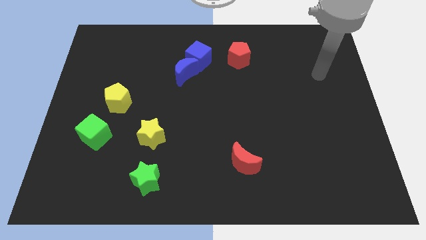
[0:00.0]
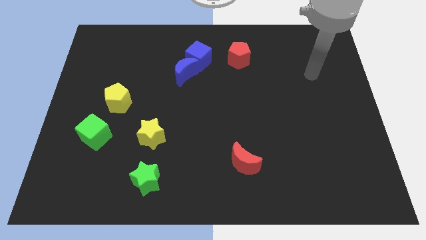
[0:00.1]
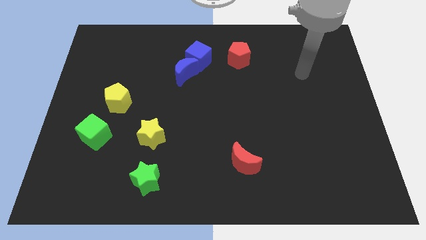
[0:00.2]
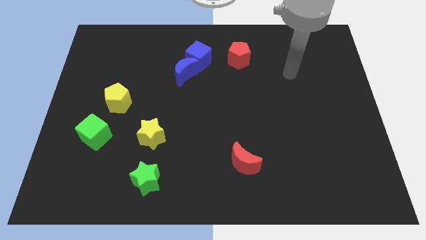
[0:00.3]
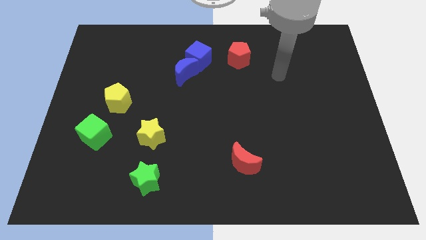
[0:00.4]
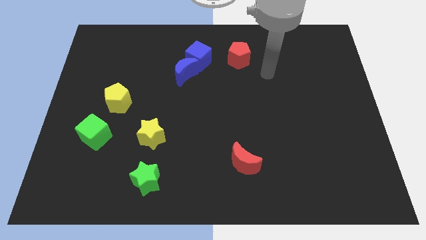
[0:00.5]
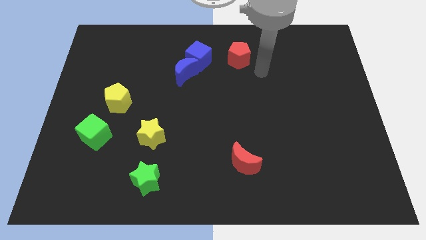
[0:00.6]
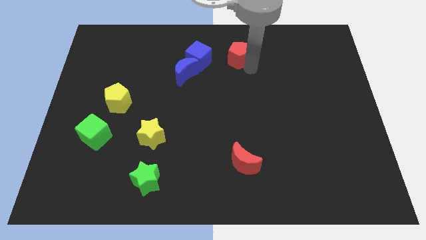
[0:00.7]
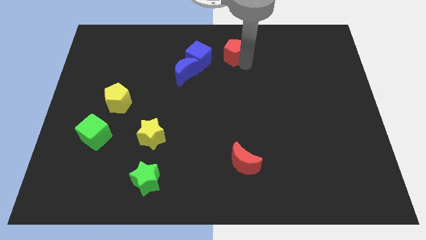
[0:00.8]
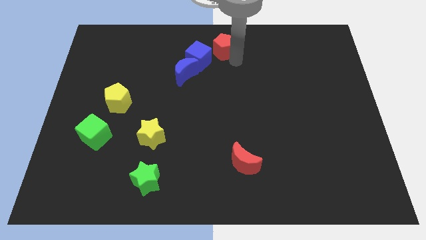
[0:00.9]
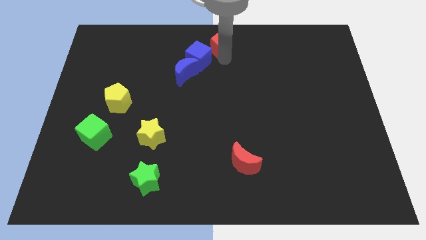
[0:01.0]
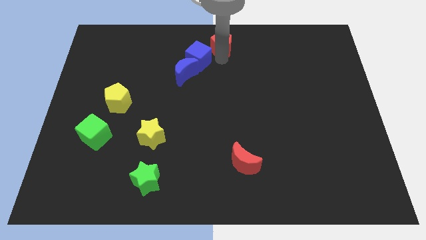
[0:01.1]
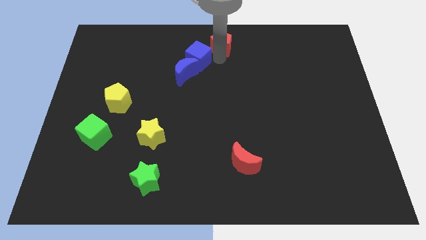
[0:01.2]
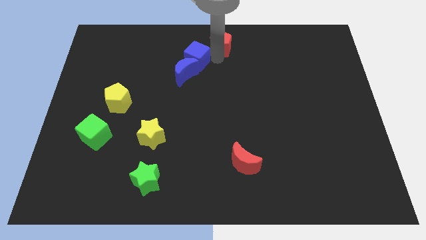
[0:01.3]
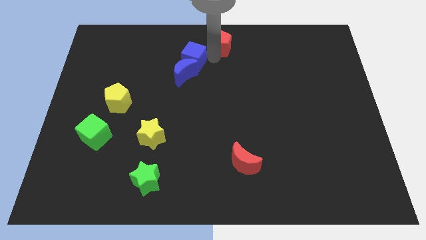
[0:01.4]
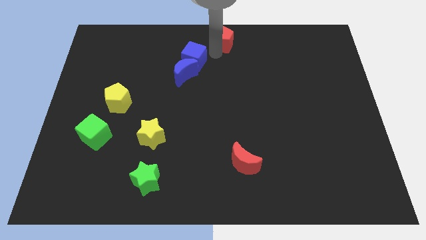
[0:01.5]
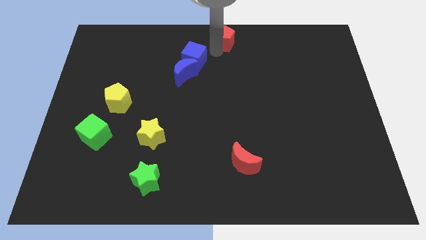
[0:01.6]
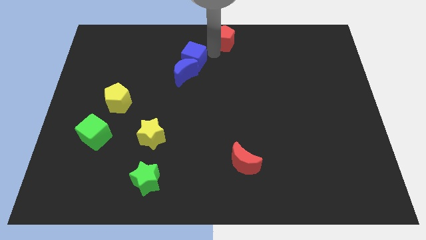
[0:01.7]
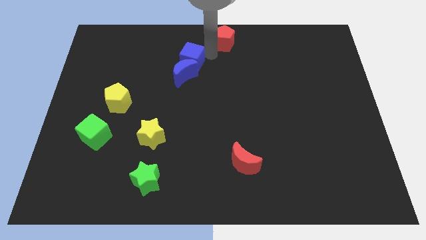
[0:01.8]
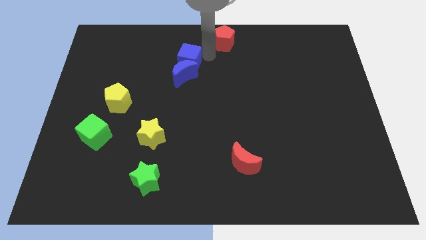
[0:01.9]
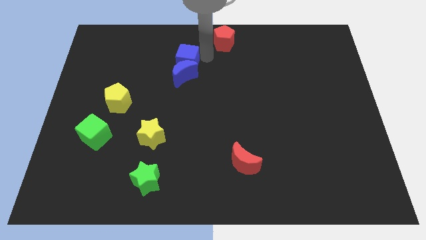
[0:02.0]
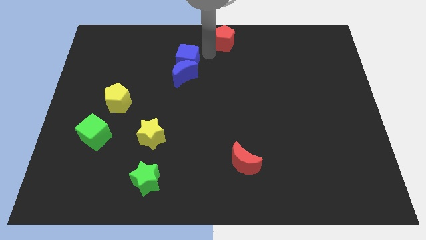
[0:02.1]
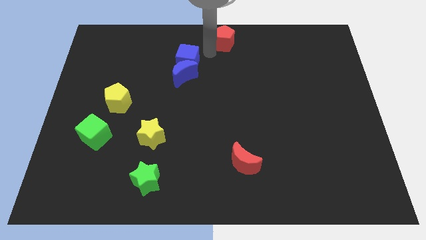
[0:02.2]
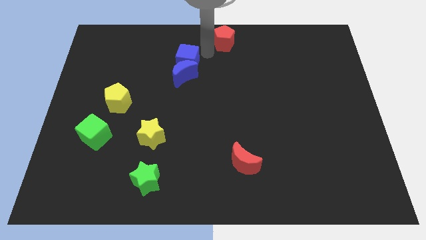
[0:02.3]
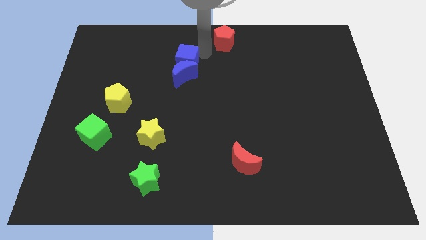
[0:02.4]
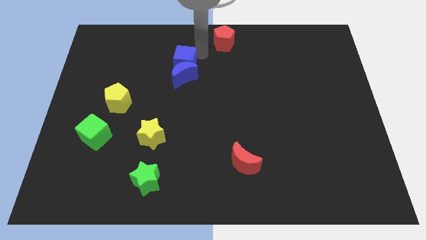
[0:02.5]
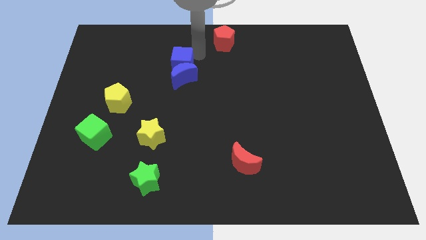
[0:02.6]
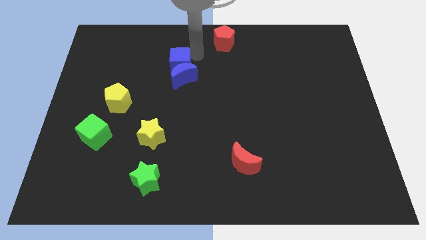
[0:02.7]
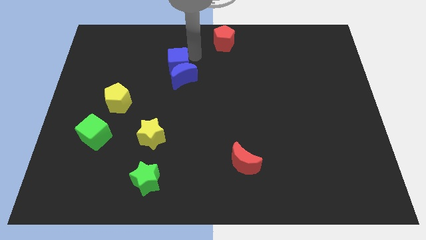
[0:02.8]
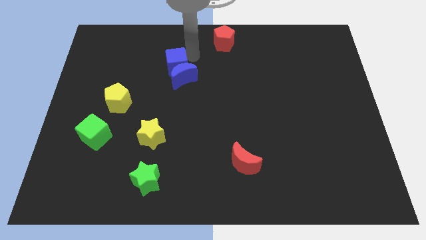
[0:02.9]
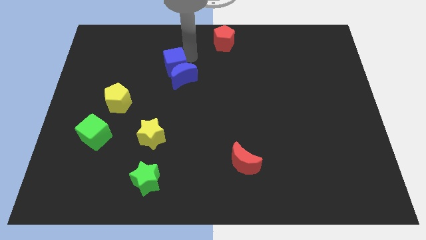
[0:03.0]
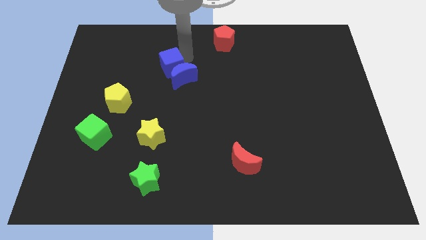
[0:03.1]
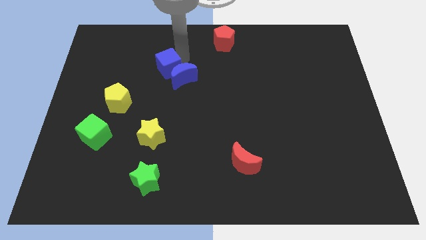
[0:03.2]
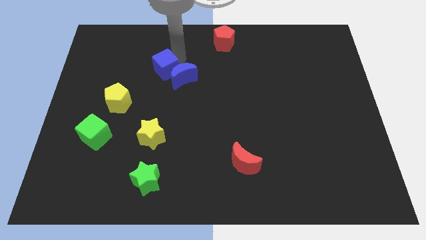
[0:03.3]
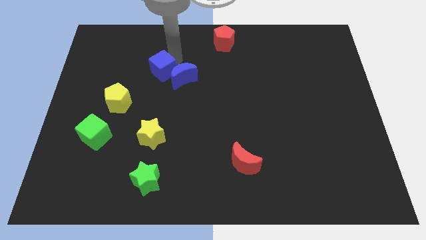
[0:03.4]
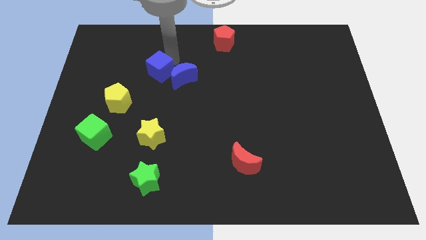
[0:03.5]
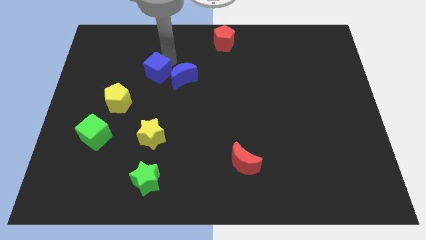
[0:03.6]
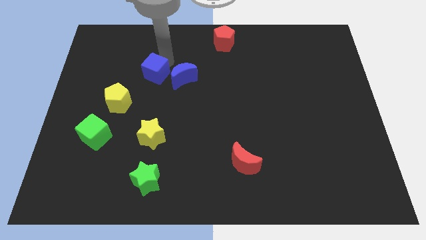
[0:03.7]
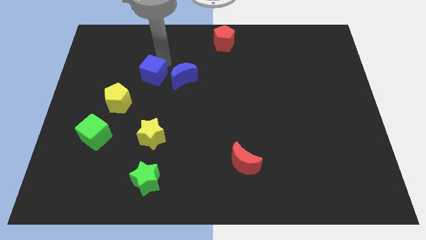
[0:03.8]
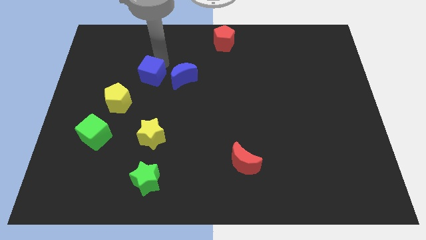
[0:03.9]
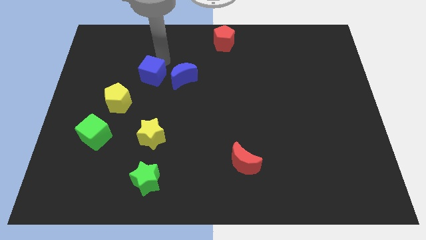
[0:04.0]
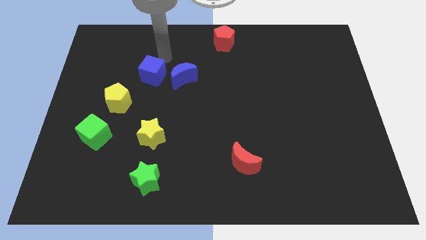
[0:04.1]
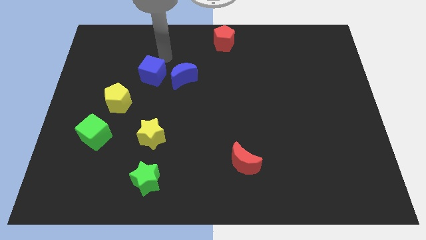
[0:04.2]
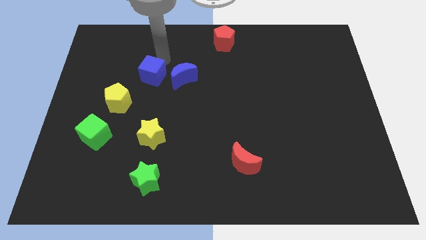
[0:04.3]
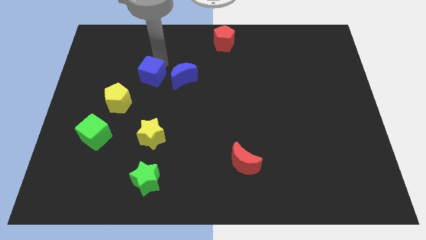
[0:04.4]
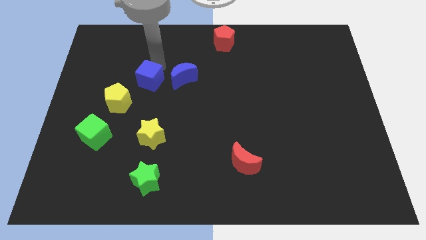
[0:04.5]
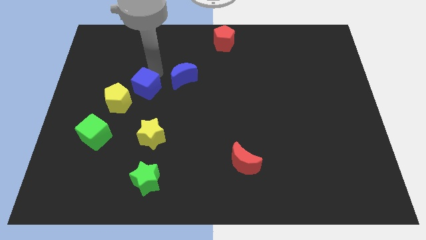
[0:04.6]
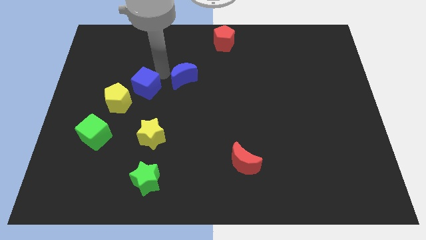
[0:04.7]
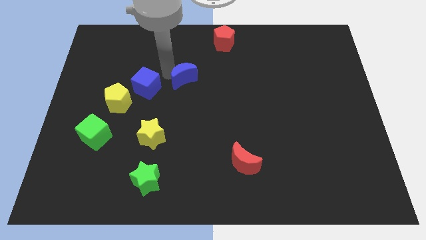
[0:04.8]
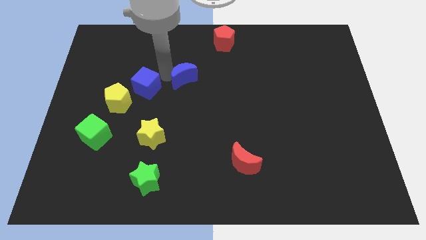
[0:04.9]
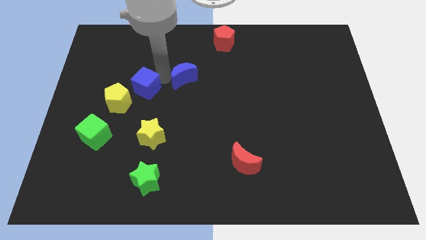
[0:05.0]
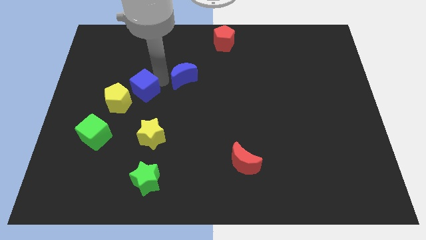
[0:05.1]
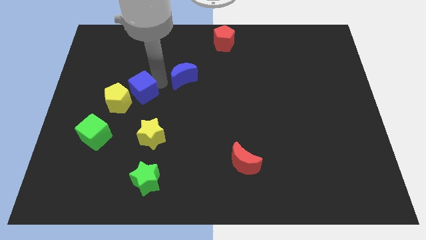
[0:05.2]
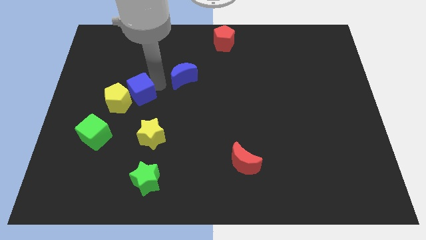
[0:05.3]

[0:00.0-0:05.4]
slide the blue cube next to the yellow pentagon

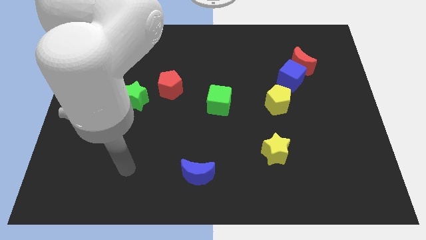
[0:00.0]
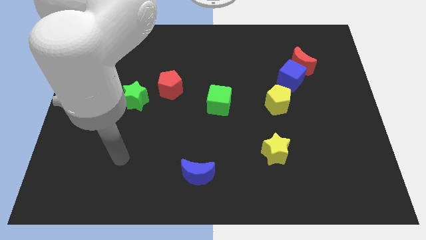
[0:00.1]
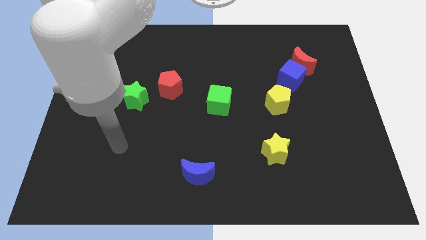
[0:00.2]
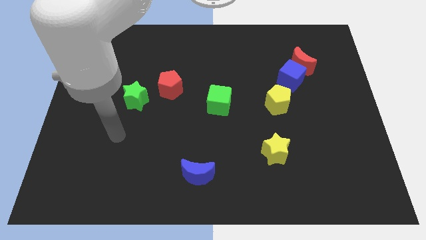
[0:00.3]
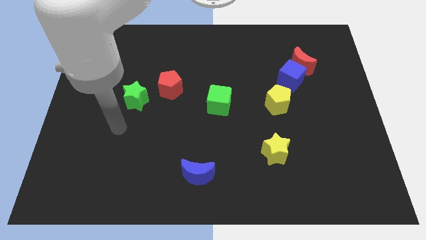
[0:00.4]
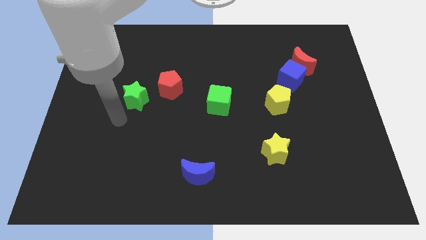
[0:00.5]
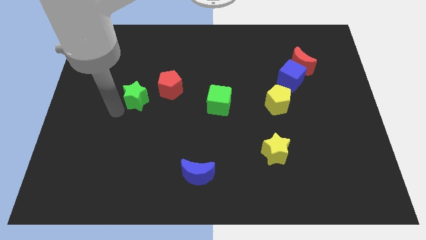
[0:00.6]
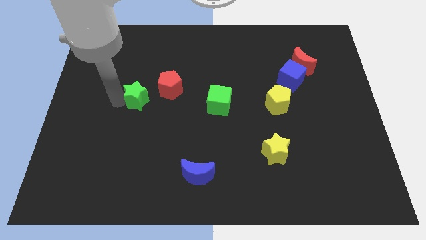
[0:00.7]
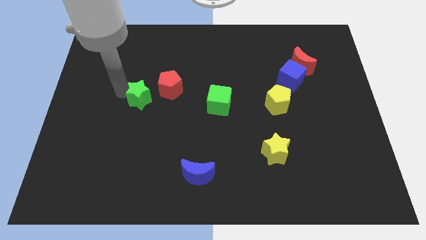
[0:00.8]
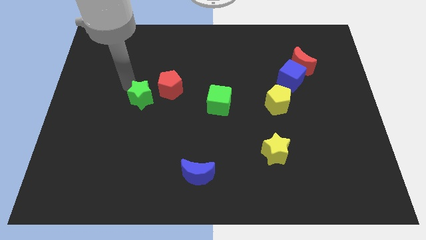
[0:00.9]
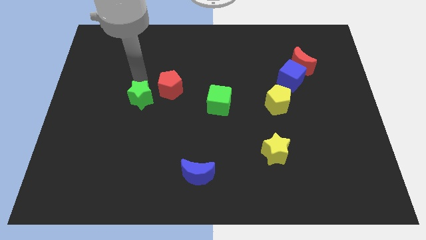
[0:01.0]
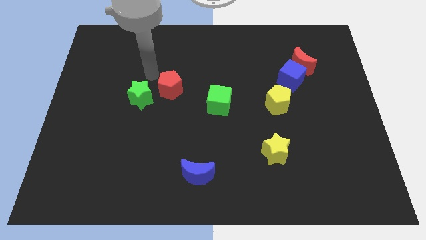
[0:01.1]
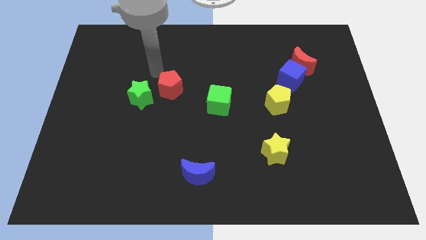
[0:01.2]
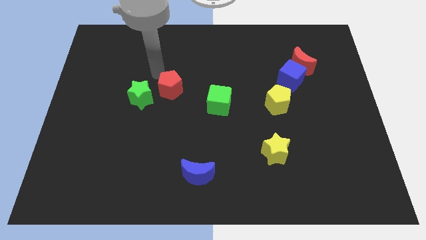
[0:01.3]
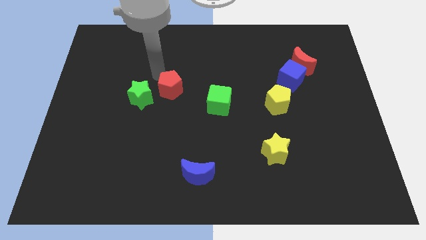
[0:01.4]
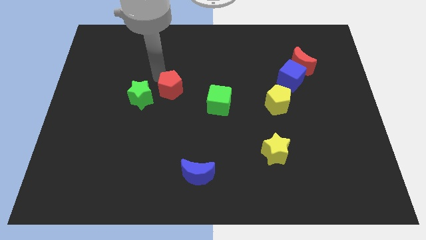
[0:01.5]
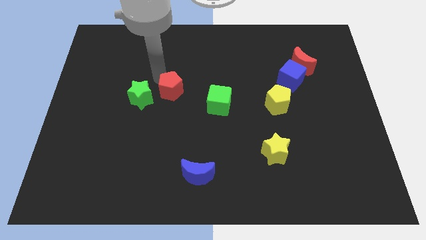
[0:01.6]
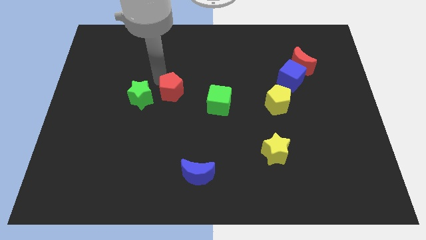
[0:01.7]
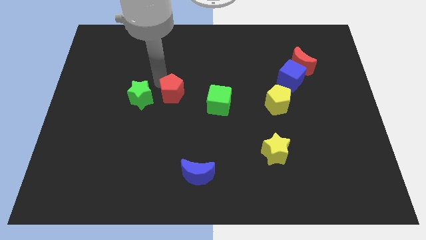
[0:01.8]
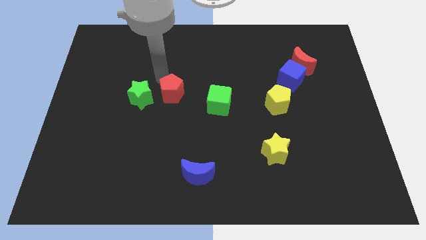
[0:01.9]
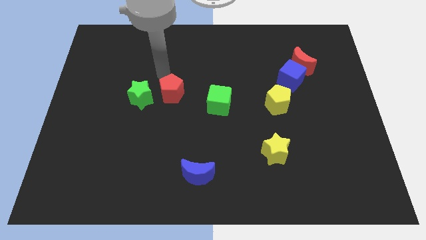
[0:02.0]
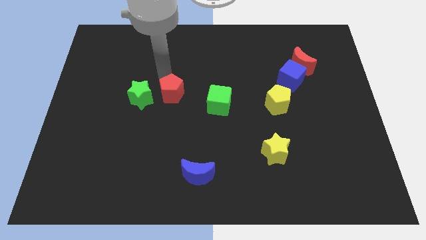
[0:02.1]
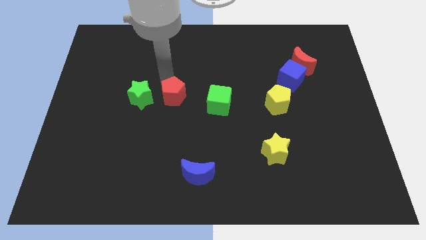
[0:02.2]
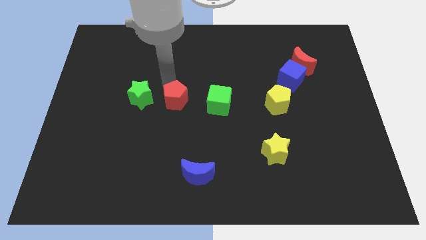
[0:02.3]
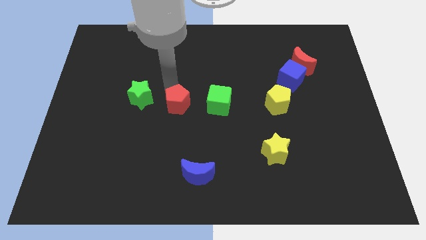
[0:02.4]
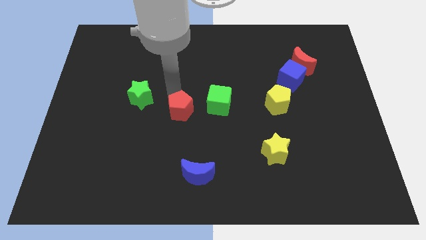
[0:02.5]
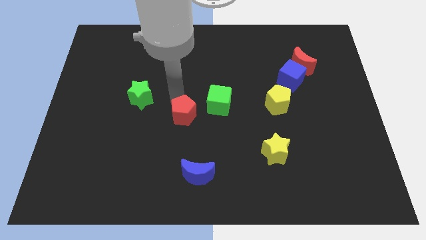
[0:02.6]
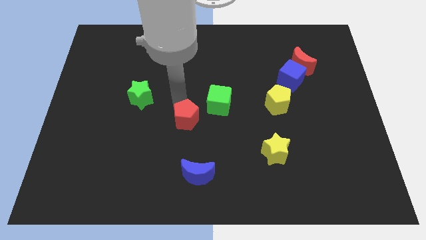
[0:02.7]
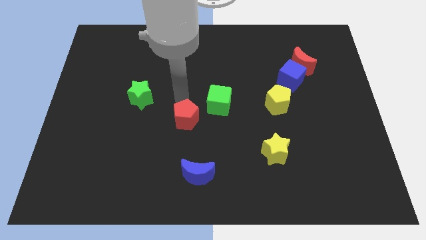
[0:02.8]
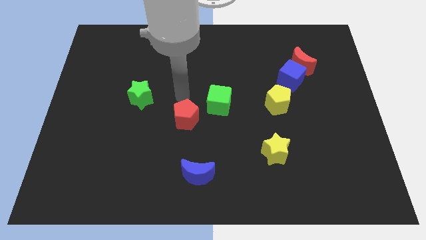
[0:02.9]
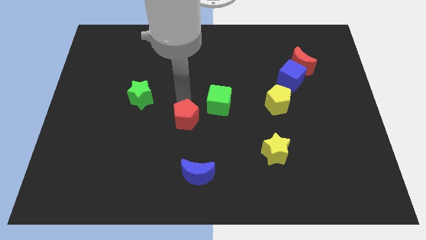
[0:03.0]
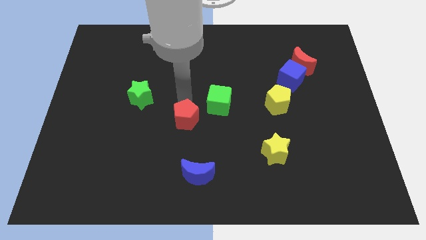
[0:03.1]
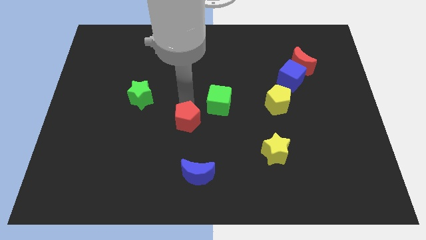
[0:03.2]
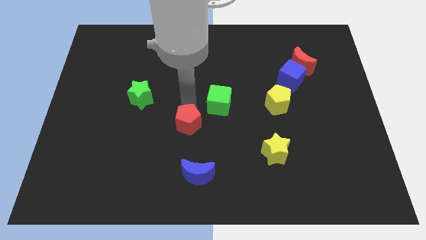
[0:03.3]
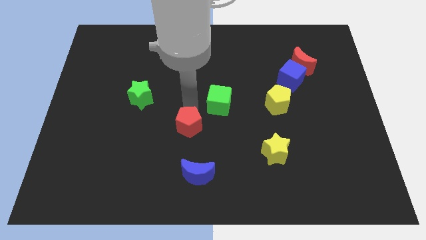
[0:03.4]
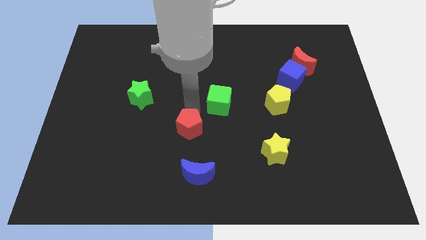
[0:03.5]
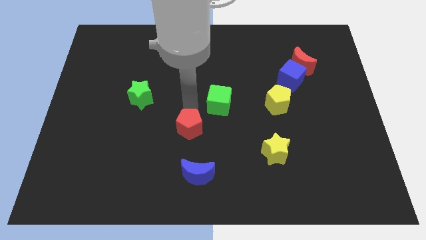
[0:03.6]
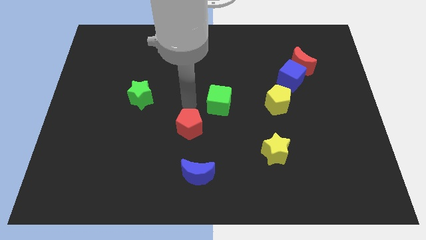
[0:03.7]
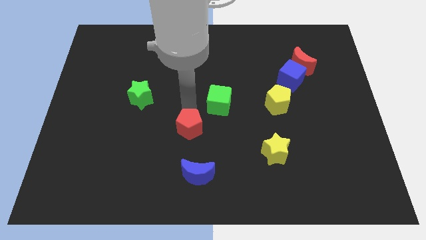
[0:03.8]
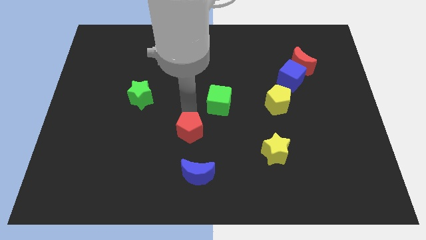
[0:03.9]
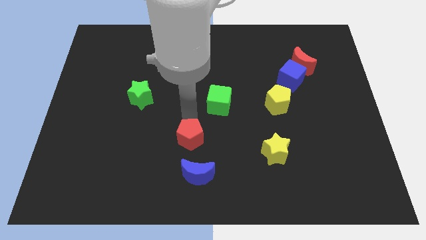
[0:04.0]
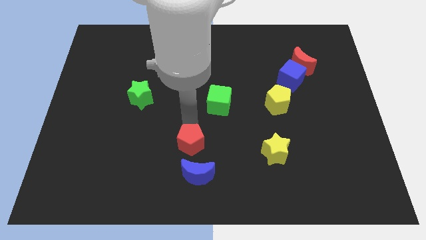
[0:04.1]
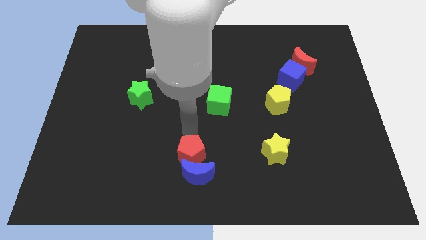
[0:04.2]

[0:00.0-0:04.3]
put the red pentagon close to the blue moon
